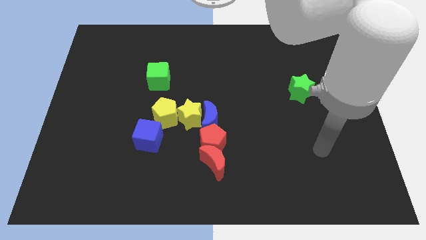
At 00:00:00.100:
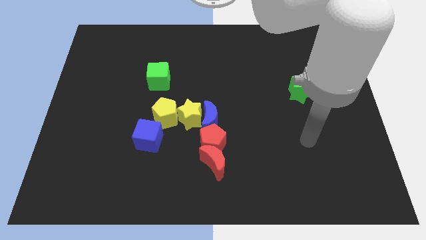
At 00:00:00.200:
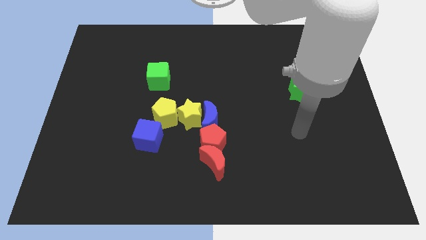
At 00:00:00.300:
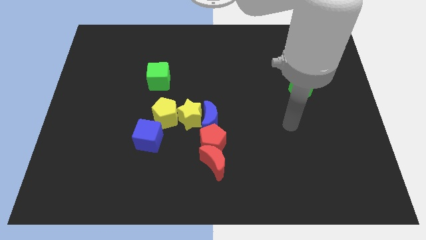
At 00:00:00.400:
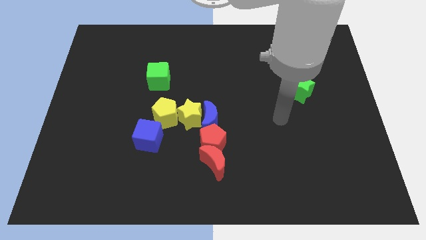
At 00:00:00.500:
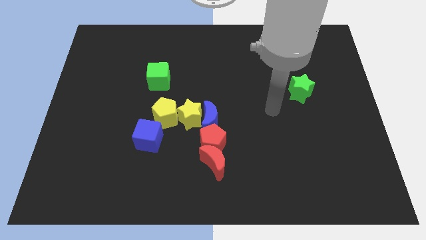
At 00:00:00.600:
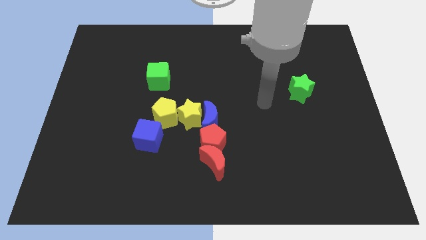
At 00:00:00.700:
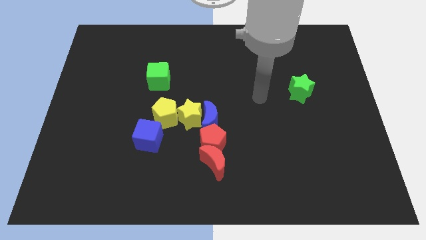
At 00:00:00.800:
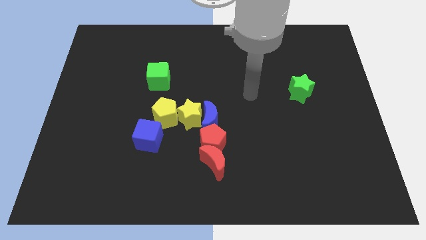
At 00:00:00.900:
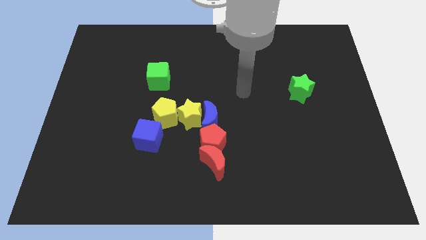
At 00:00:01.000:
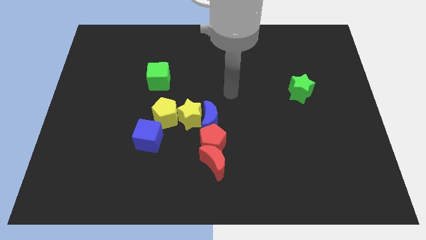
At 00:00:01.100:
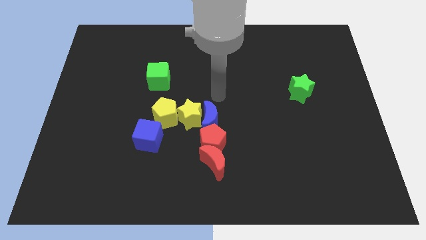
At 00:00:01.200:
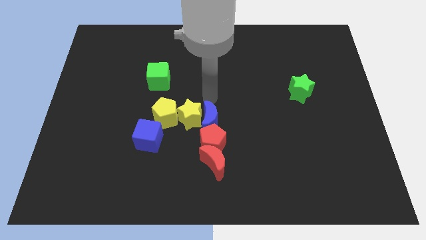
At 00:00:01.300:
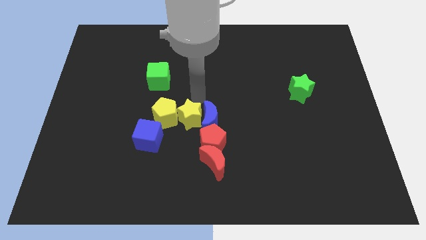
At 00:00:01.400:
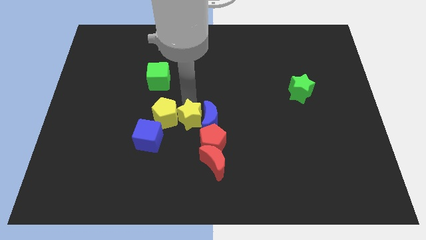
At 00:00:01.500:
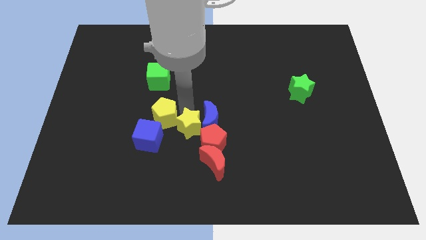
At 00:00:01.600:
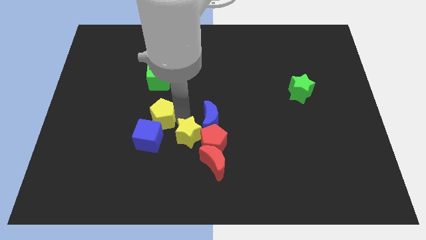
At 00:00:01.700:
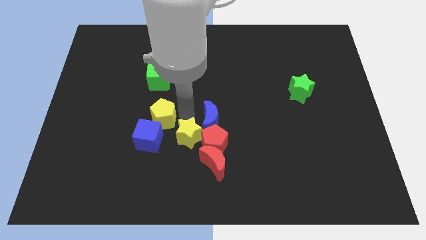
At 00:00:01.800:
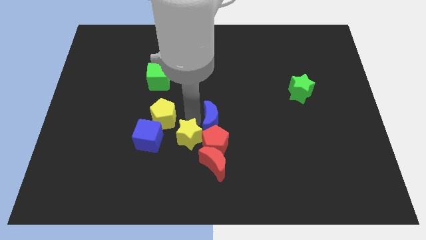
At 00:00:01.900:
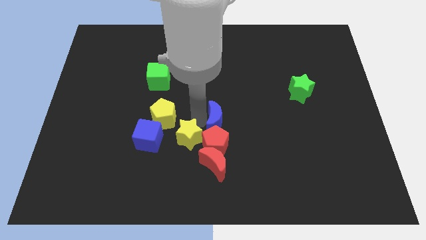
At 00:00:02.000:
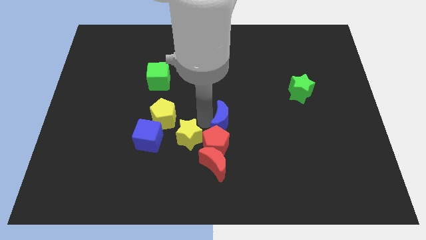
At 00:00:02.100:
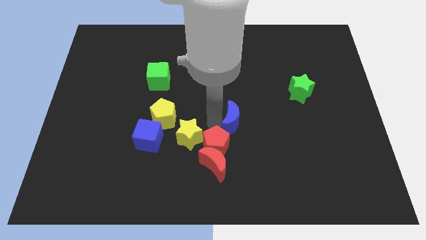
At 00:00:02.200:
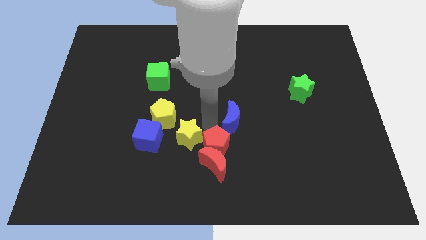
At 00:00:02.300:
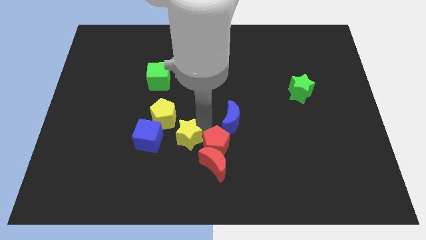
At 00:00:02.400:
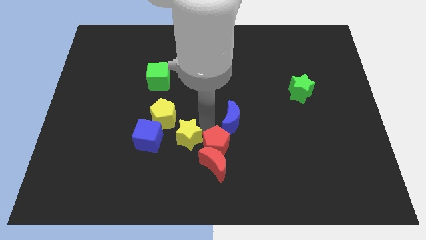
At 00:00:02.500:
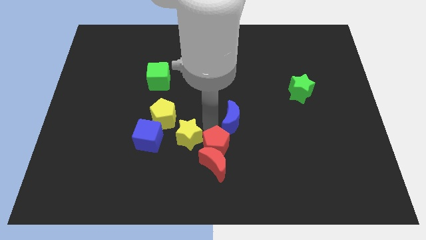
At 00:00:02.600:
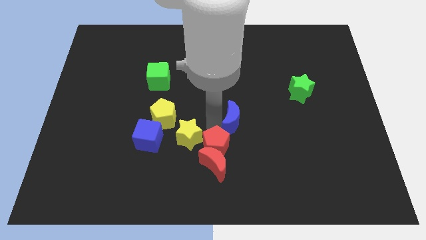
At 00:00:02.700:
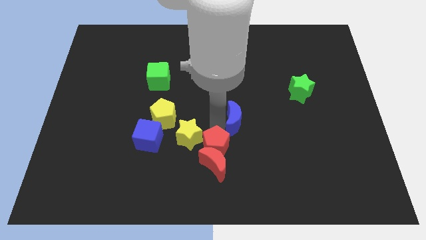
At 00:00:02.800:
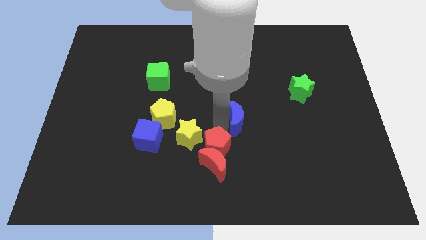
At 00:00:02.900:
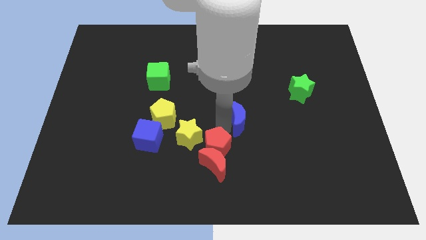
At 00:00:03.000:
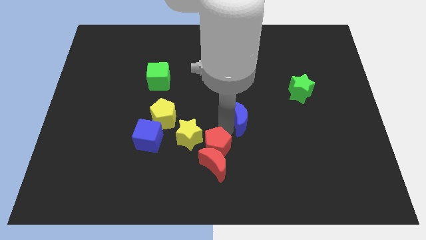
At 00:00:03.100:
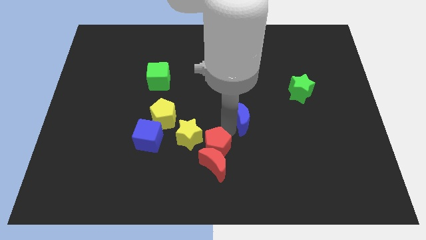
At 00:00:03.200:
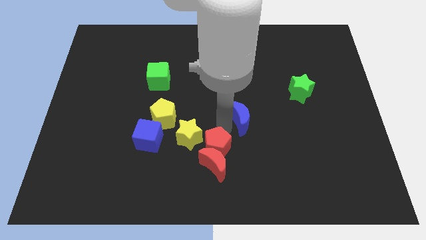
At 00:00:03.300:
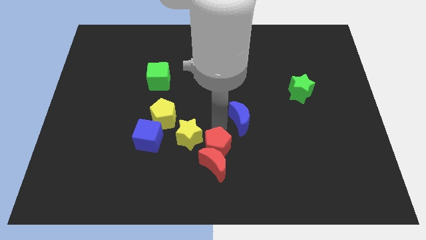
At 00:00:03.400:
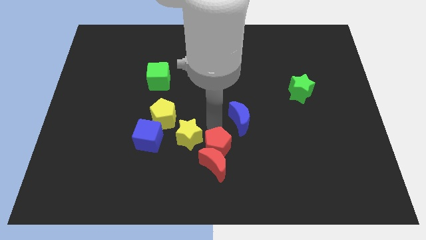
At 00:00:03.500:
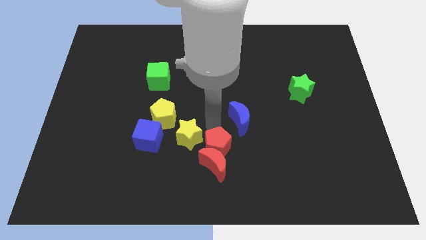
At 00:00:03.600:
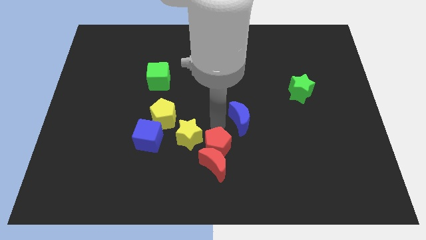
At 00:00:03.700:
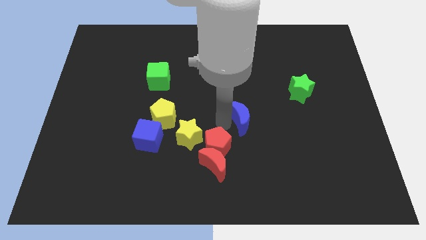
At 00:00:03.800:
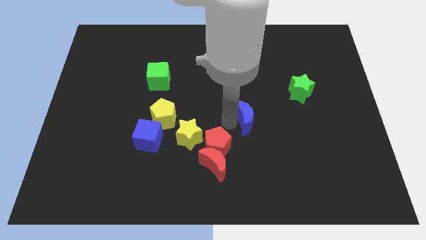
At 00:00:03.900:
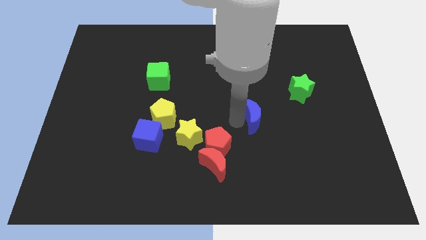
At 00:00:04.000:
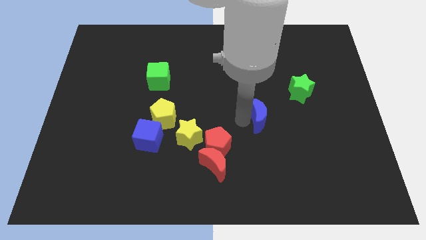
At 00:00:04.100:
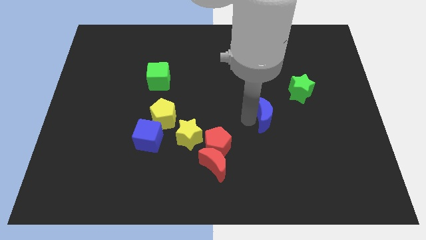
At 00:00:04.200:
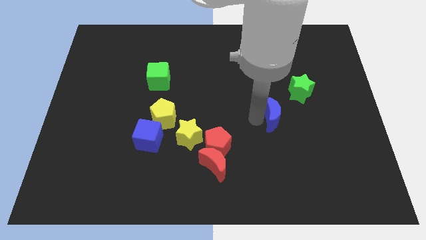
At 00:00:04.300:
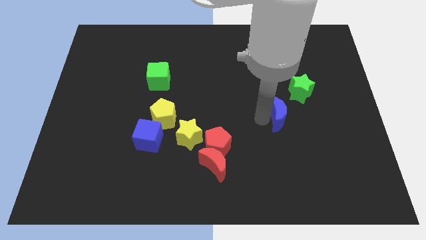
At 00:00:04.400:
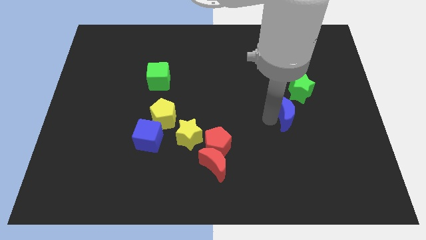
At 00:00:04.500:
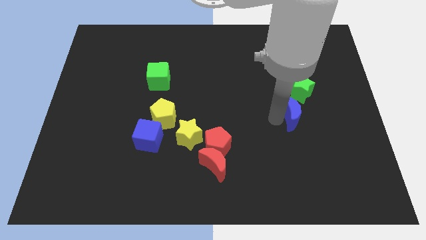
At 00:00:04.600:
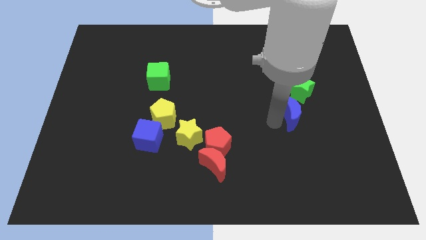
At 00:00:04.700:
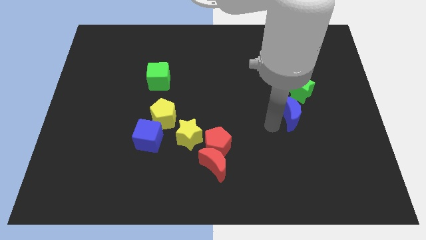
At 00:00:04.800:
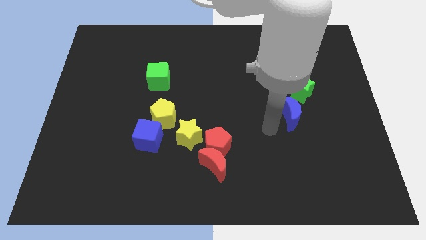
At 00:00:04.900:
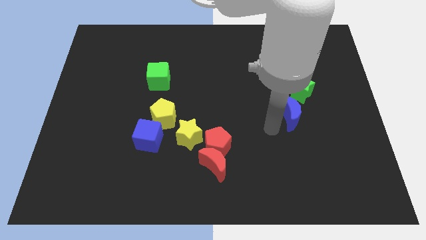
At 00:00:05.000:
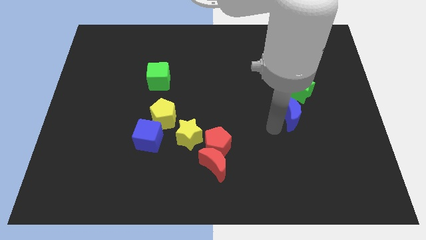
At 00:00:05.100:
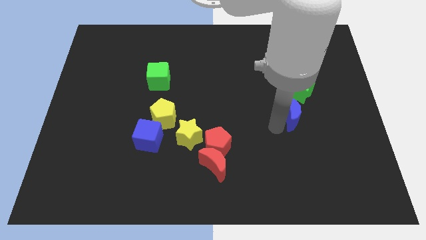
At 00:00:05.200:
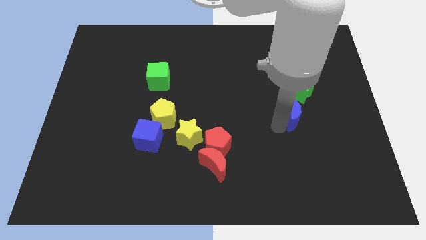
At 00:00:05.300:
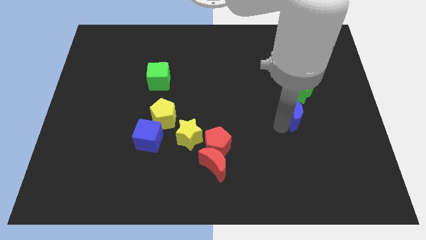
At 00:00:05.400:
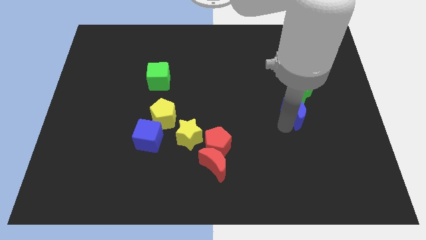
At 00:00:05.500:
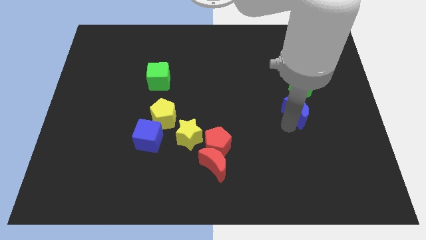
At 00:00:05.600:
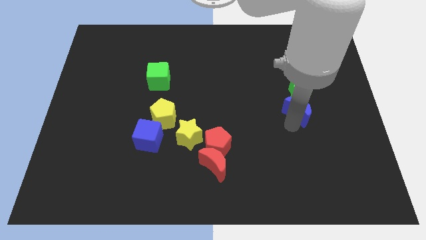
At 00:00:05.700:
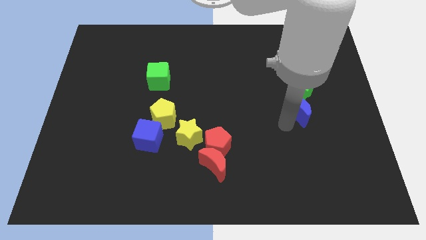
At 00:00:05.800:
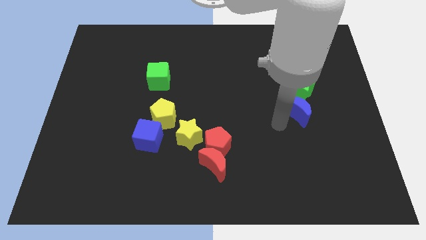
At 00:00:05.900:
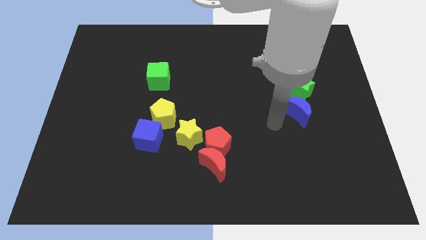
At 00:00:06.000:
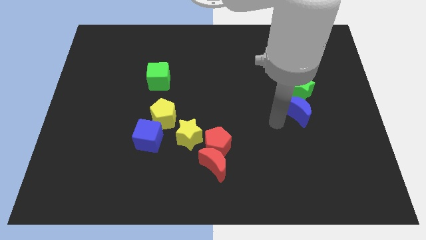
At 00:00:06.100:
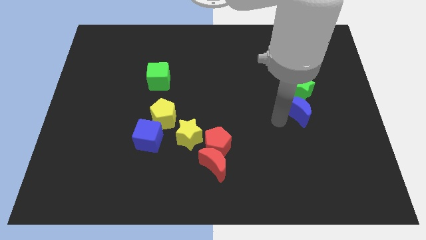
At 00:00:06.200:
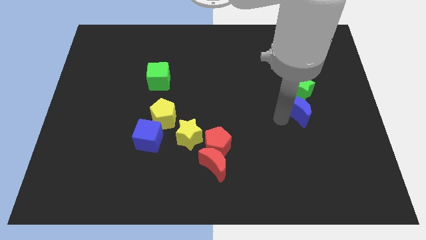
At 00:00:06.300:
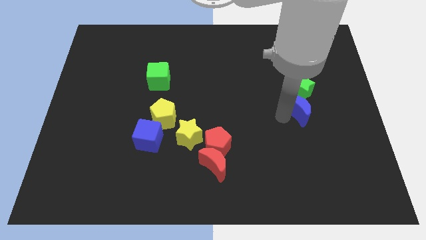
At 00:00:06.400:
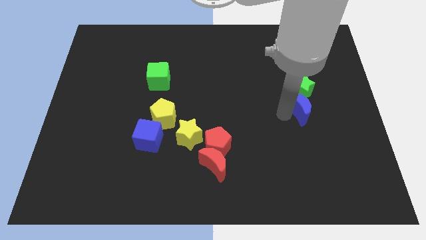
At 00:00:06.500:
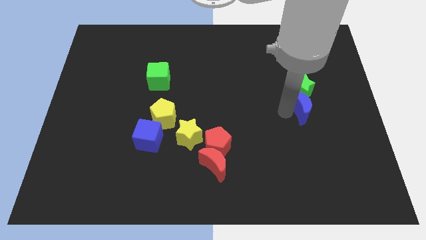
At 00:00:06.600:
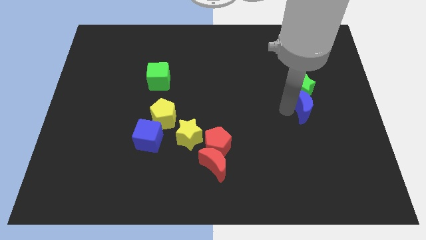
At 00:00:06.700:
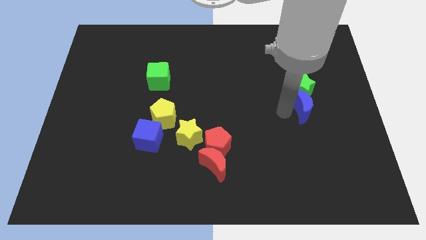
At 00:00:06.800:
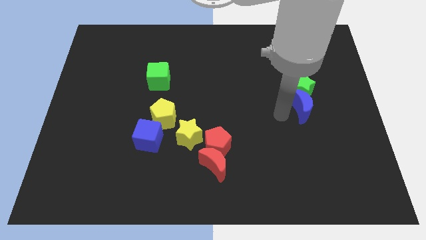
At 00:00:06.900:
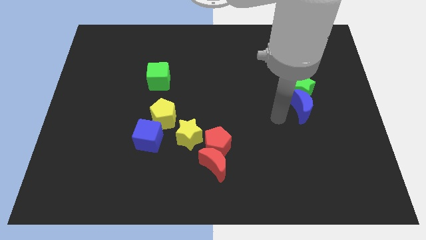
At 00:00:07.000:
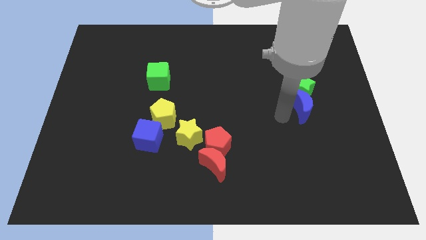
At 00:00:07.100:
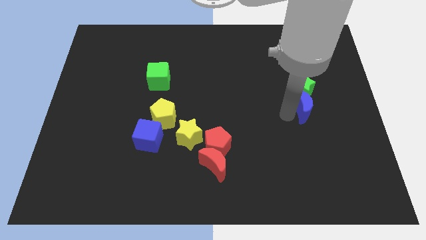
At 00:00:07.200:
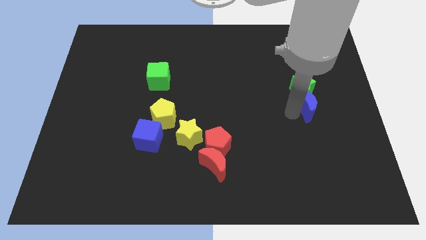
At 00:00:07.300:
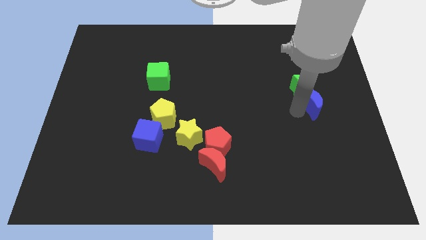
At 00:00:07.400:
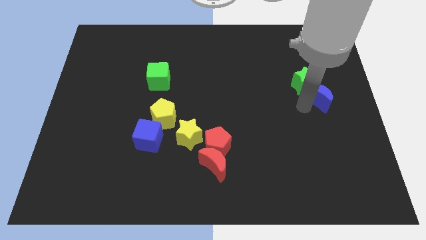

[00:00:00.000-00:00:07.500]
slide the blue moon to the center right
